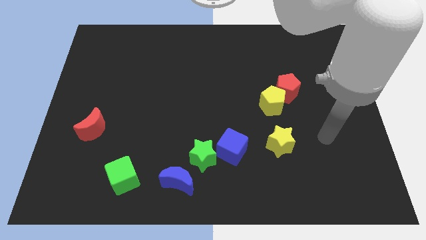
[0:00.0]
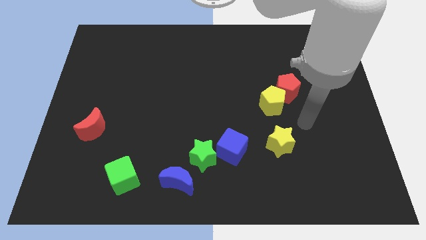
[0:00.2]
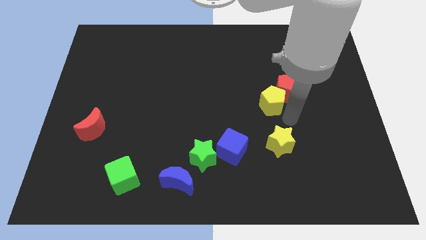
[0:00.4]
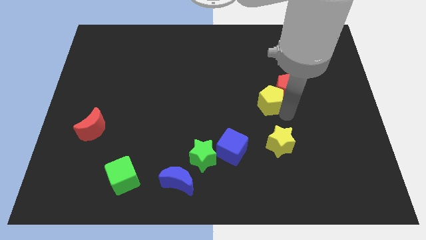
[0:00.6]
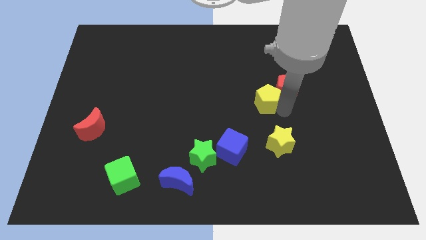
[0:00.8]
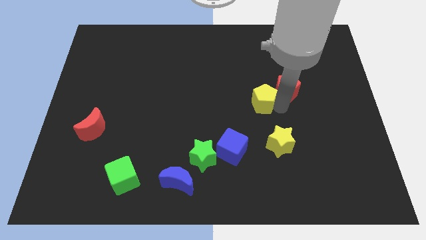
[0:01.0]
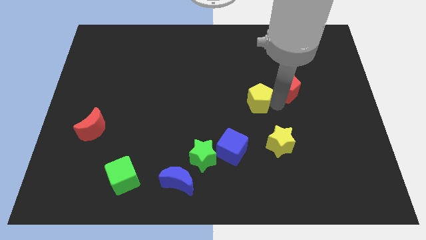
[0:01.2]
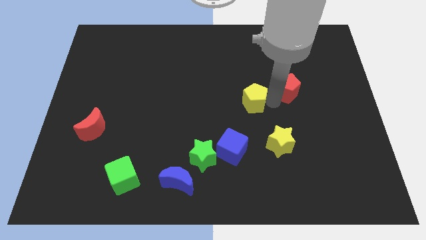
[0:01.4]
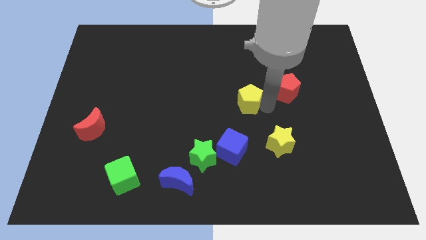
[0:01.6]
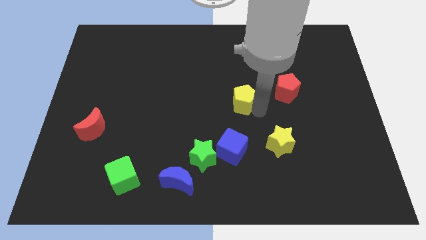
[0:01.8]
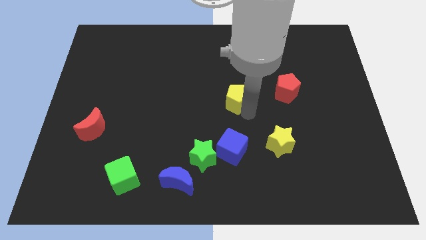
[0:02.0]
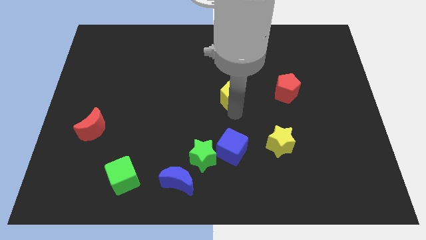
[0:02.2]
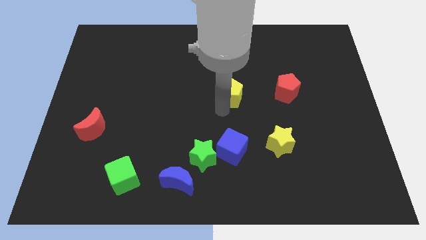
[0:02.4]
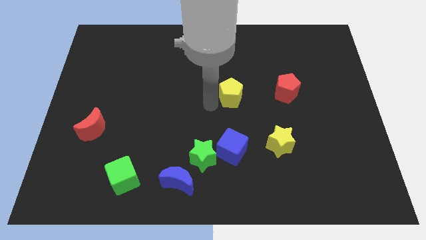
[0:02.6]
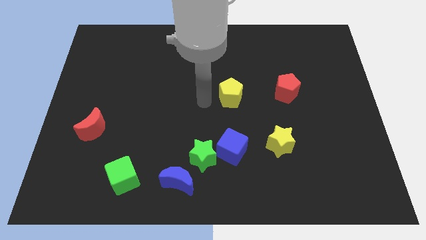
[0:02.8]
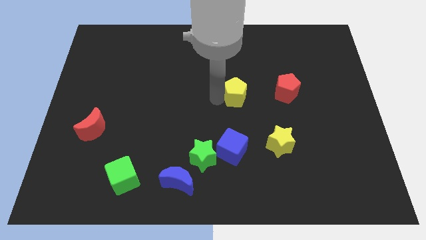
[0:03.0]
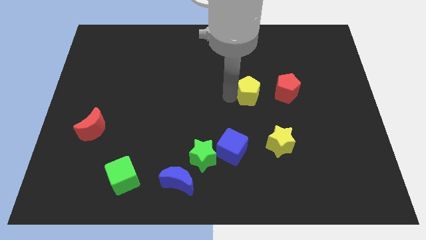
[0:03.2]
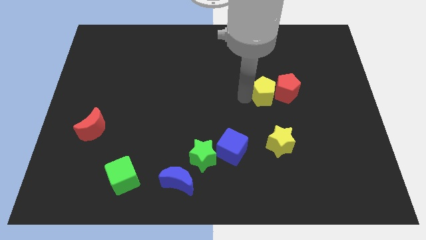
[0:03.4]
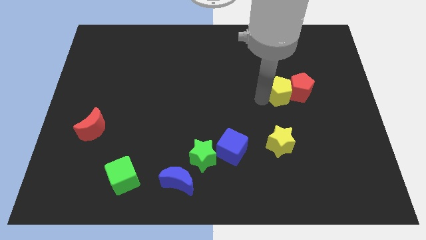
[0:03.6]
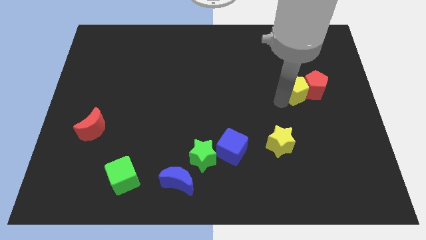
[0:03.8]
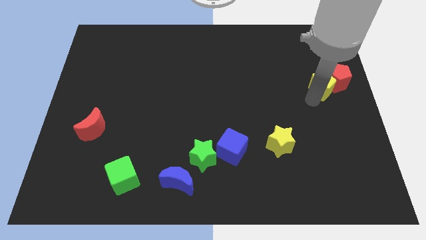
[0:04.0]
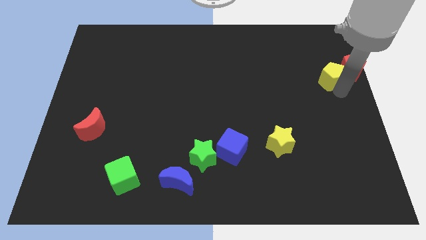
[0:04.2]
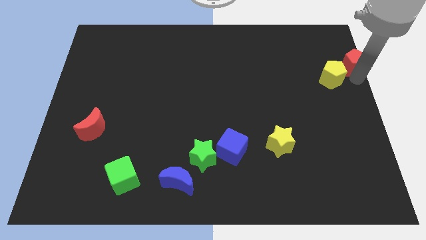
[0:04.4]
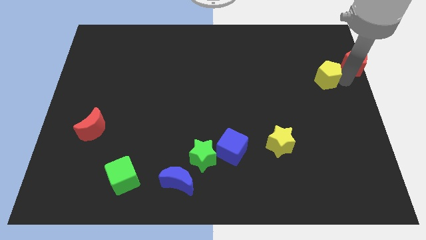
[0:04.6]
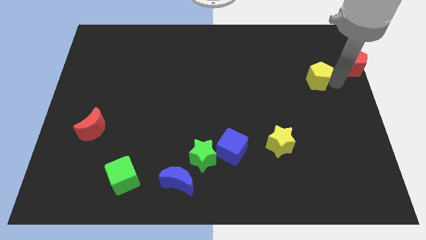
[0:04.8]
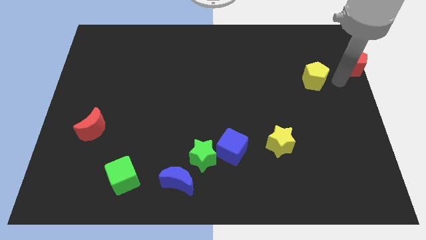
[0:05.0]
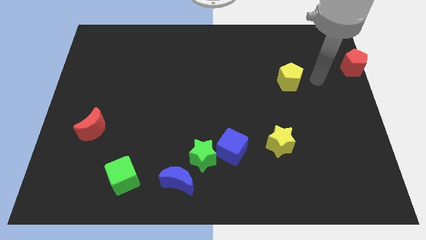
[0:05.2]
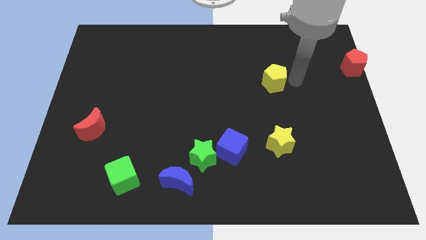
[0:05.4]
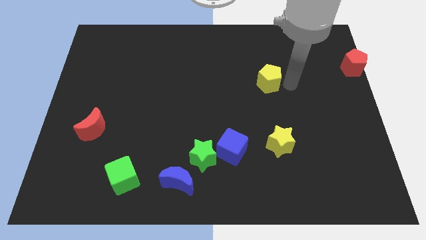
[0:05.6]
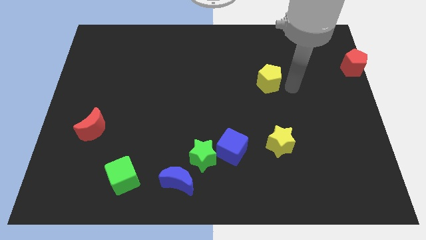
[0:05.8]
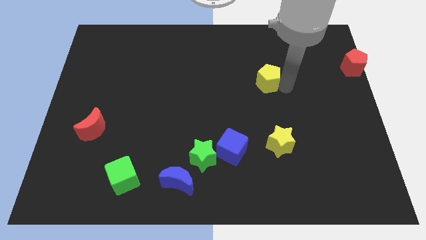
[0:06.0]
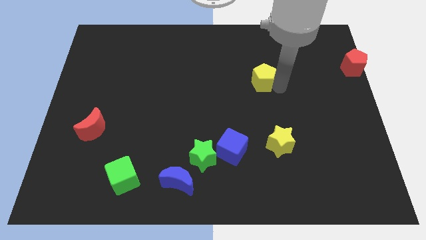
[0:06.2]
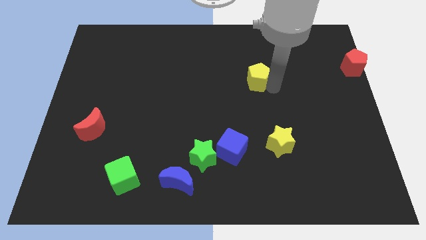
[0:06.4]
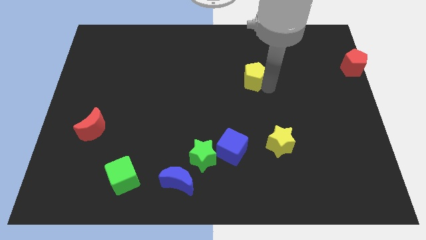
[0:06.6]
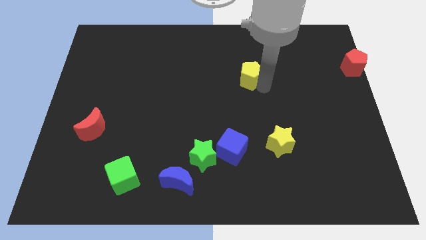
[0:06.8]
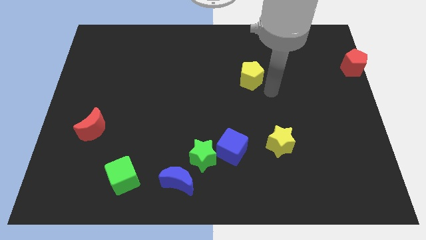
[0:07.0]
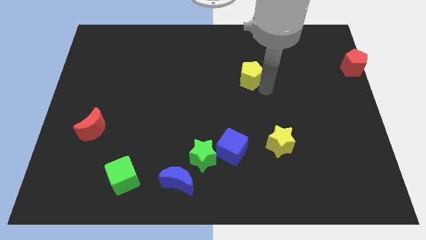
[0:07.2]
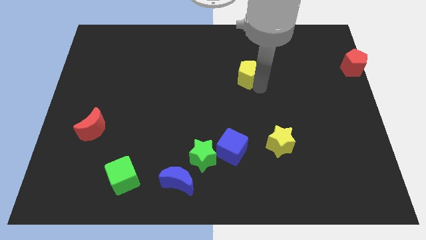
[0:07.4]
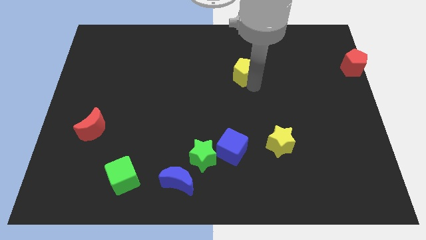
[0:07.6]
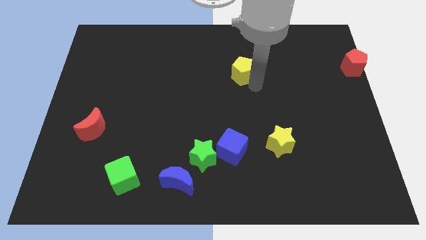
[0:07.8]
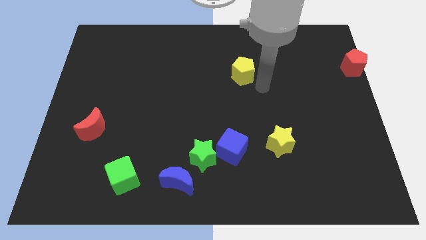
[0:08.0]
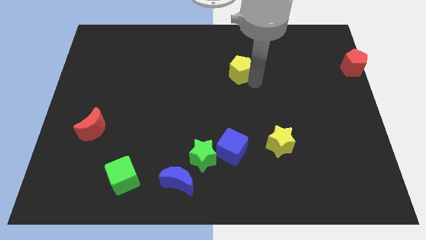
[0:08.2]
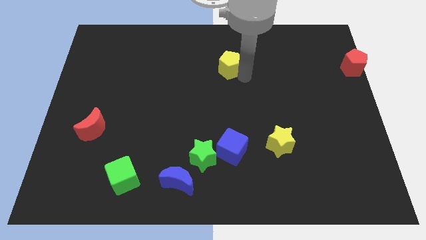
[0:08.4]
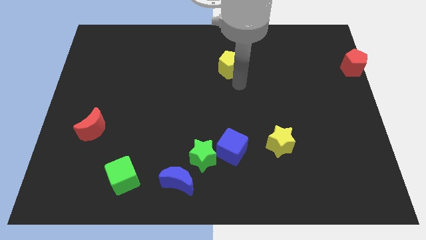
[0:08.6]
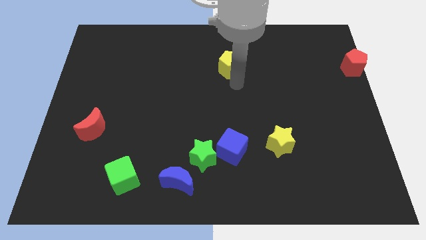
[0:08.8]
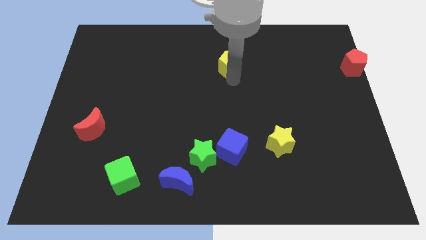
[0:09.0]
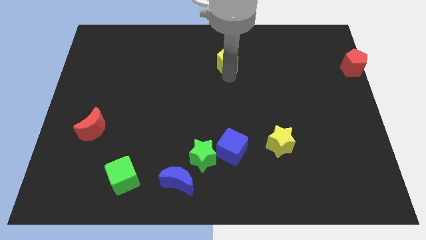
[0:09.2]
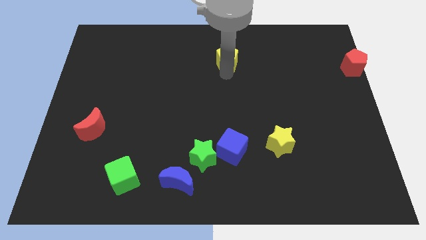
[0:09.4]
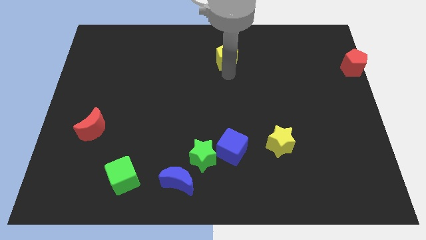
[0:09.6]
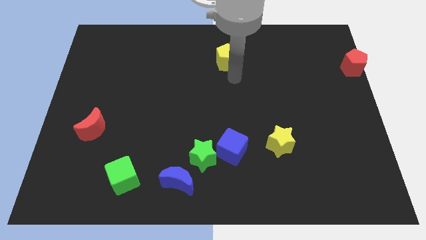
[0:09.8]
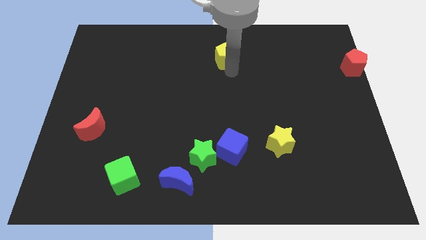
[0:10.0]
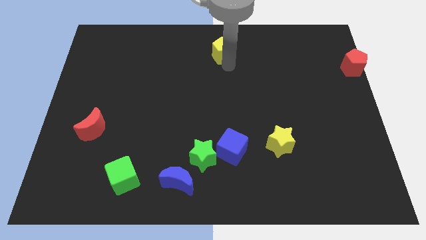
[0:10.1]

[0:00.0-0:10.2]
slide the yellow pentagon to the towards your base
